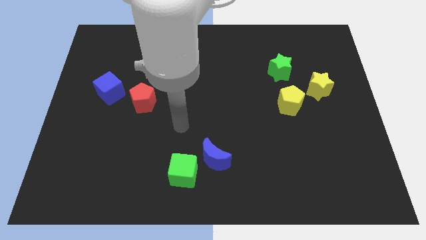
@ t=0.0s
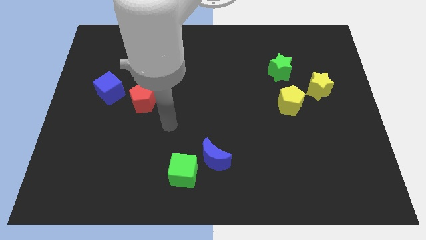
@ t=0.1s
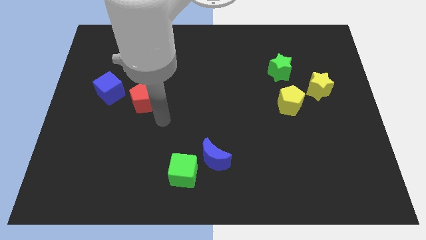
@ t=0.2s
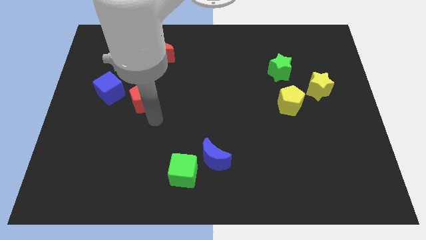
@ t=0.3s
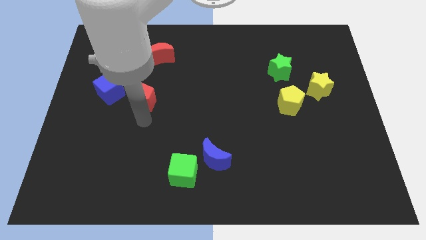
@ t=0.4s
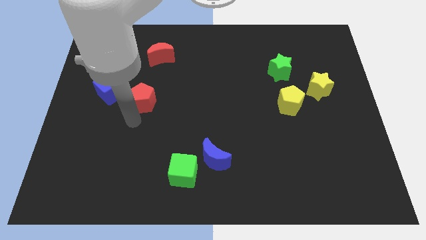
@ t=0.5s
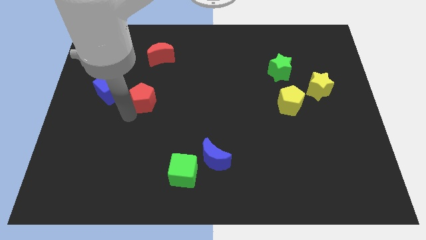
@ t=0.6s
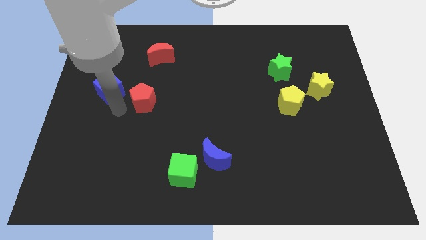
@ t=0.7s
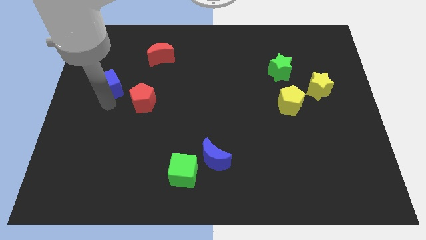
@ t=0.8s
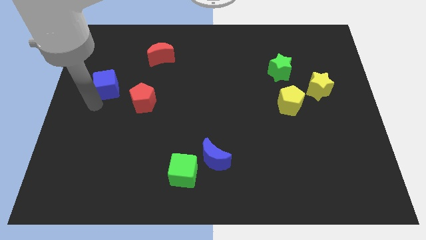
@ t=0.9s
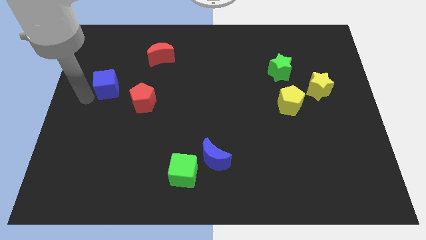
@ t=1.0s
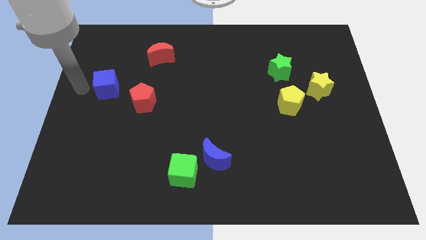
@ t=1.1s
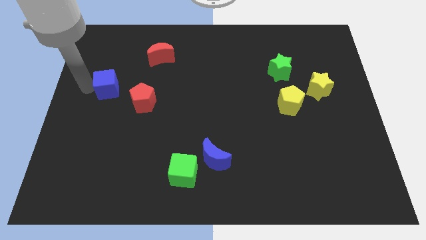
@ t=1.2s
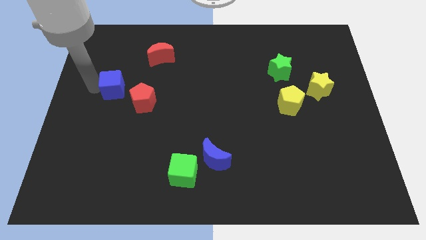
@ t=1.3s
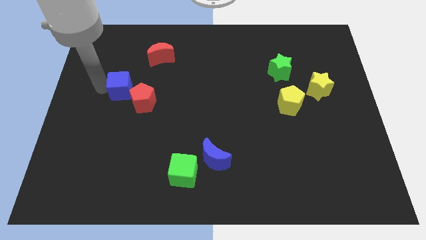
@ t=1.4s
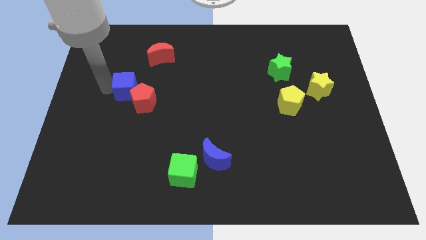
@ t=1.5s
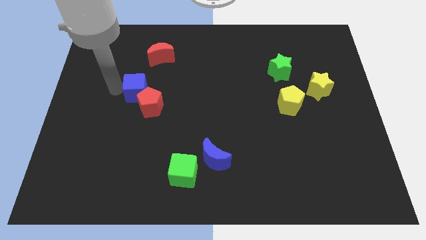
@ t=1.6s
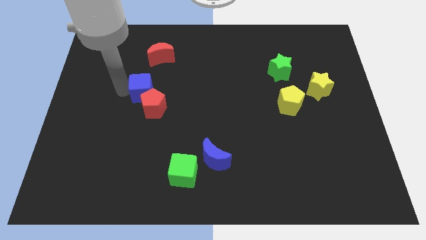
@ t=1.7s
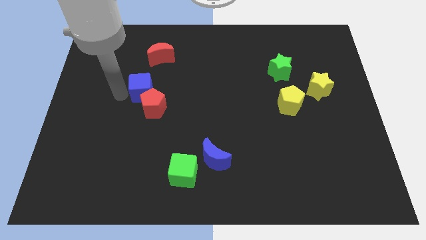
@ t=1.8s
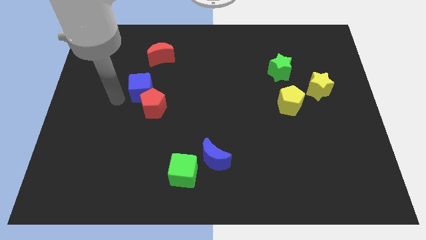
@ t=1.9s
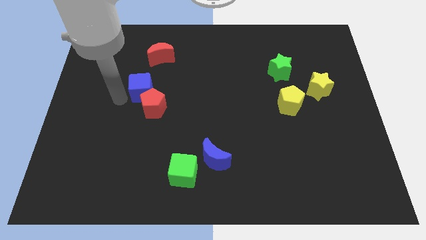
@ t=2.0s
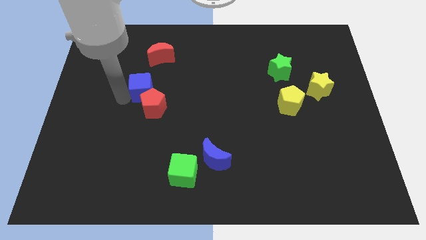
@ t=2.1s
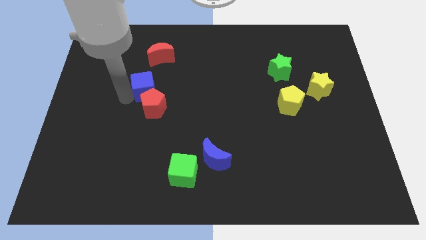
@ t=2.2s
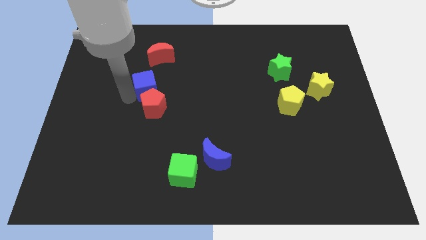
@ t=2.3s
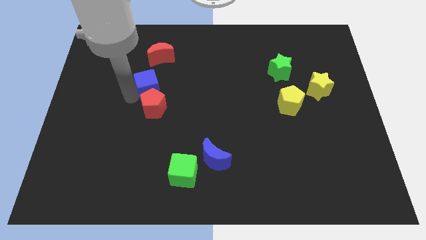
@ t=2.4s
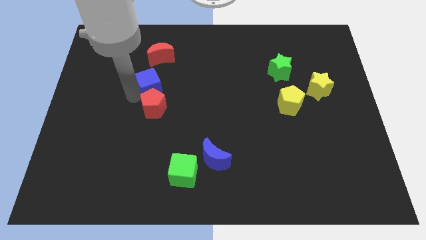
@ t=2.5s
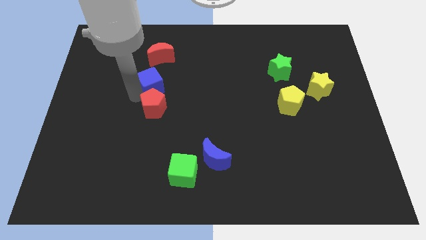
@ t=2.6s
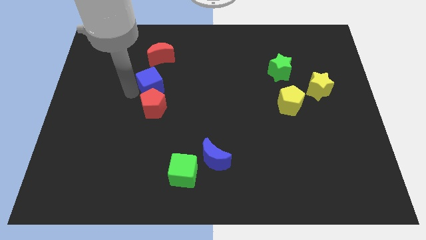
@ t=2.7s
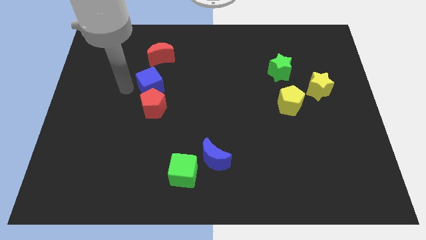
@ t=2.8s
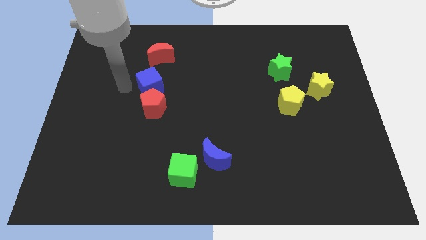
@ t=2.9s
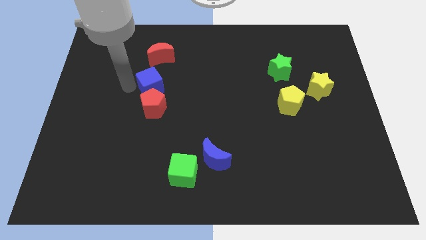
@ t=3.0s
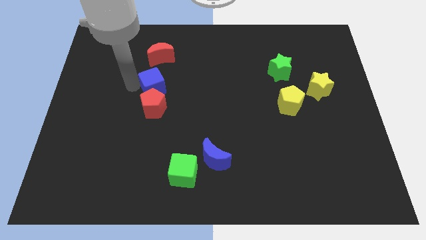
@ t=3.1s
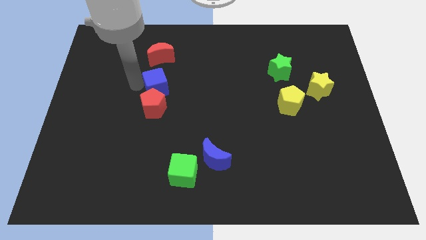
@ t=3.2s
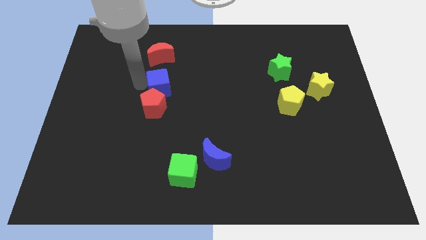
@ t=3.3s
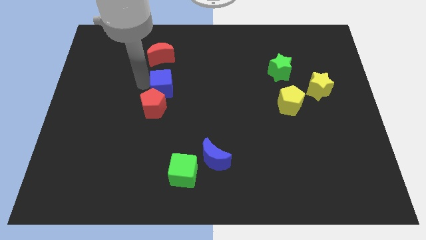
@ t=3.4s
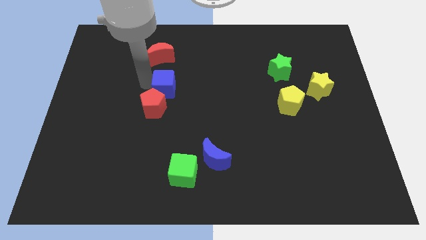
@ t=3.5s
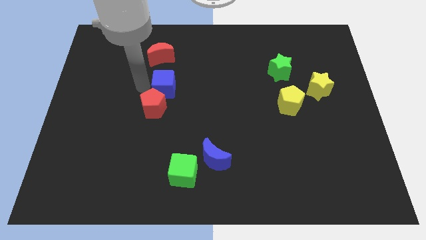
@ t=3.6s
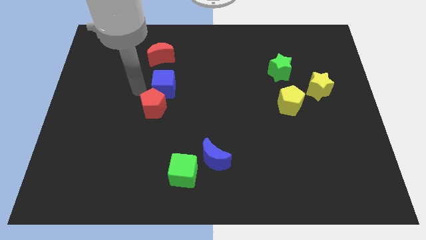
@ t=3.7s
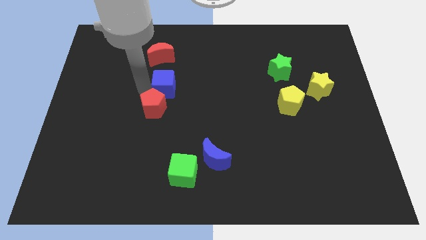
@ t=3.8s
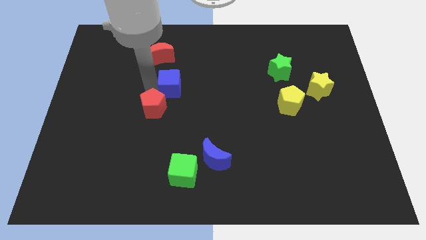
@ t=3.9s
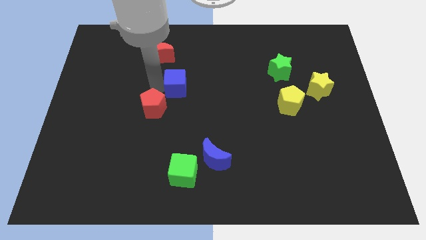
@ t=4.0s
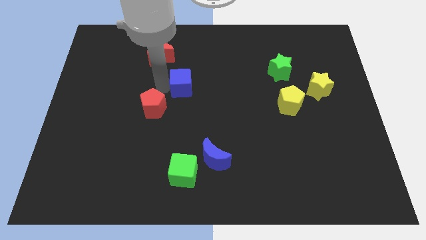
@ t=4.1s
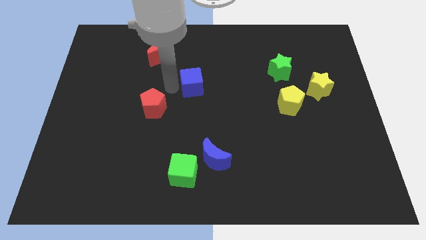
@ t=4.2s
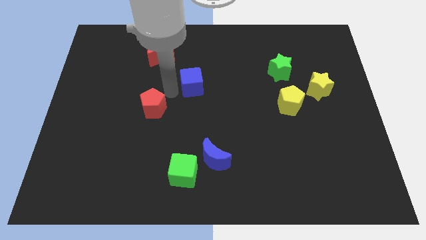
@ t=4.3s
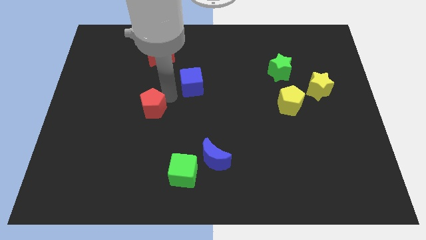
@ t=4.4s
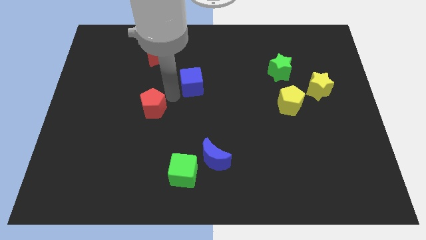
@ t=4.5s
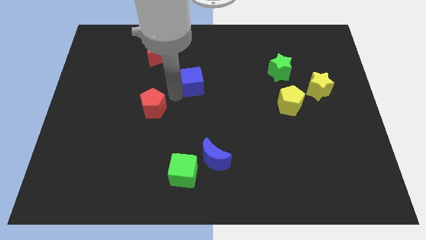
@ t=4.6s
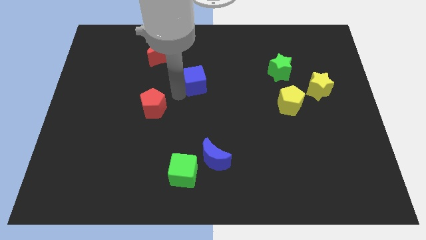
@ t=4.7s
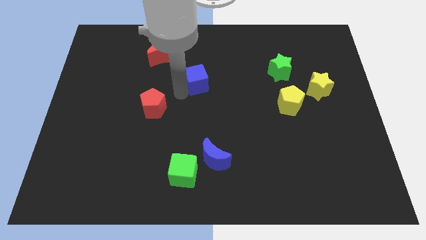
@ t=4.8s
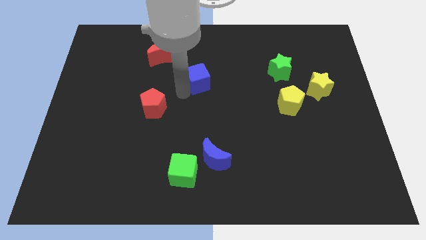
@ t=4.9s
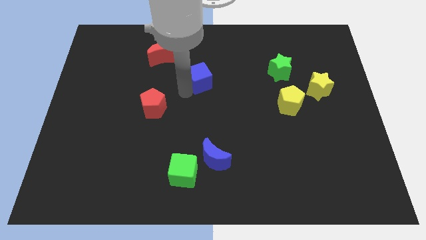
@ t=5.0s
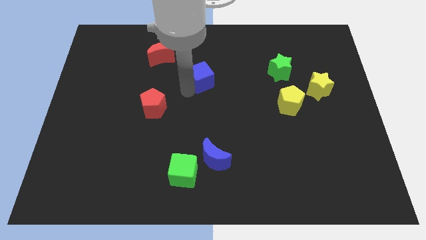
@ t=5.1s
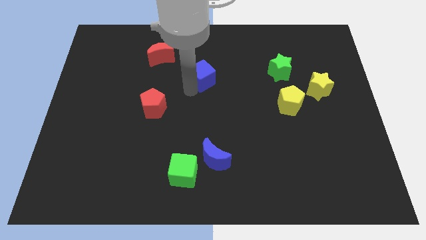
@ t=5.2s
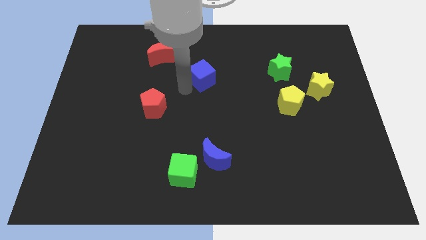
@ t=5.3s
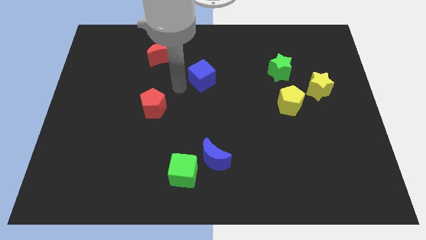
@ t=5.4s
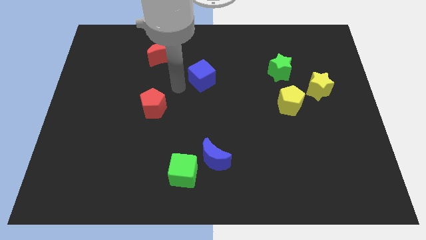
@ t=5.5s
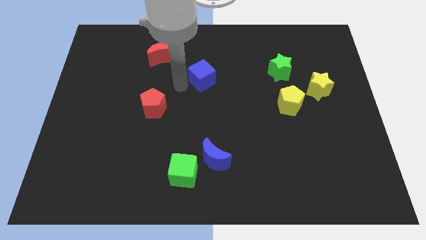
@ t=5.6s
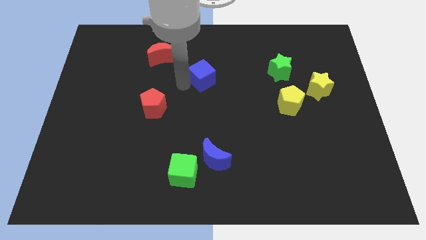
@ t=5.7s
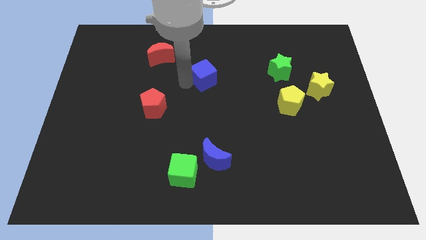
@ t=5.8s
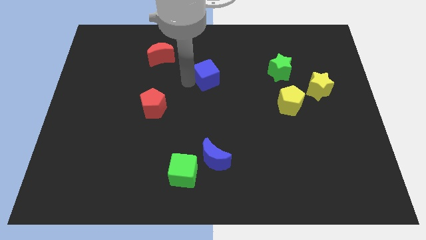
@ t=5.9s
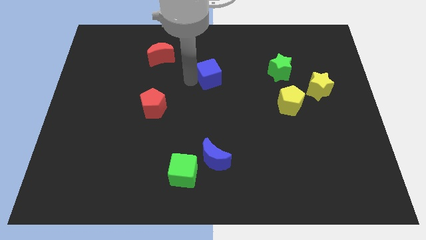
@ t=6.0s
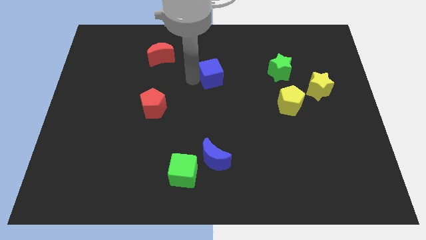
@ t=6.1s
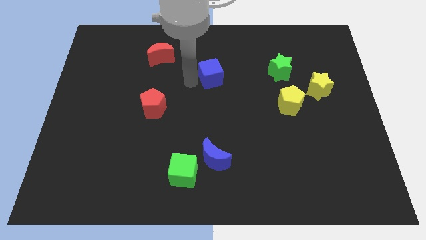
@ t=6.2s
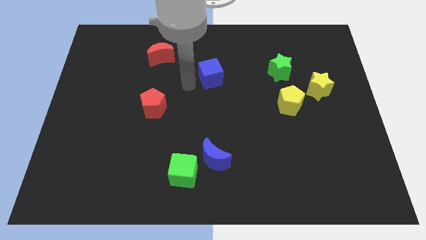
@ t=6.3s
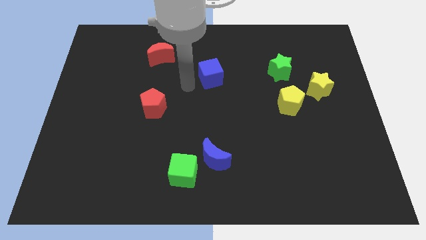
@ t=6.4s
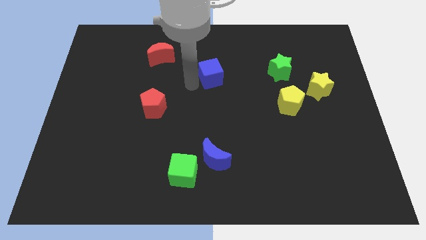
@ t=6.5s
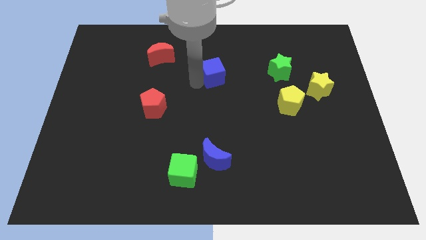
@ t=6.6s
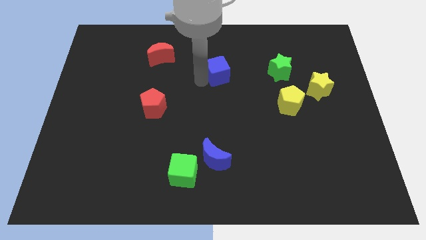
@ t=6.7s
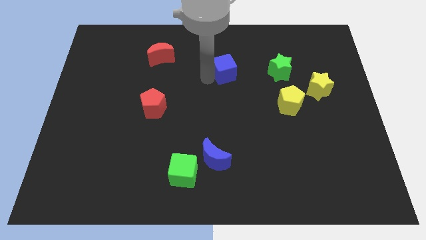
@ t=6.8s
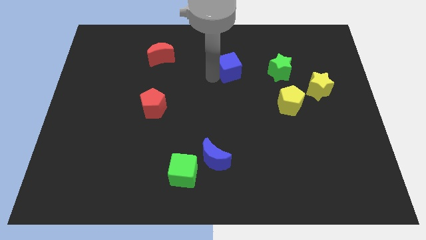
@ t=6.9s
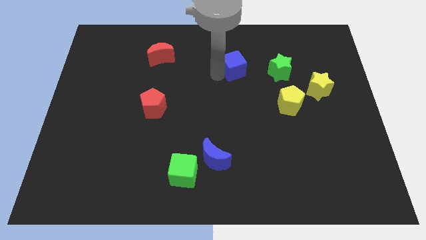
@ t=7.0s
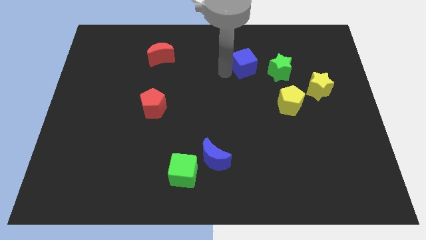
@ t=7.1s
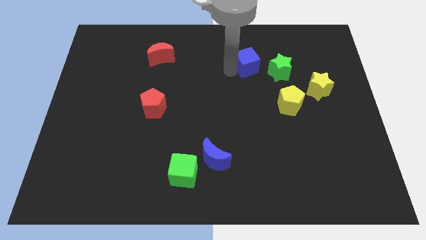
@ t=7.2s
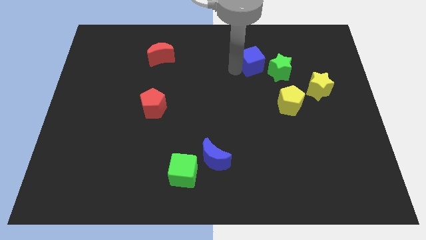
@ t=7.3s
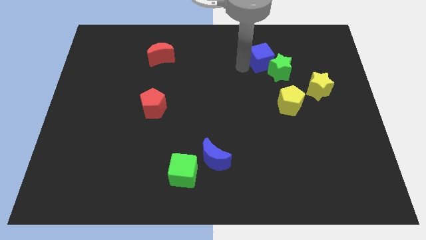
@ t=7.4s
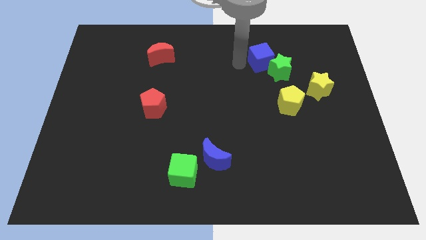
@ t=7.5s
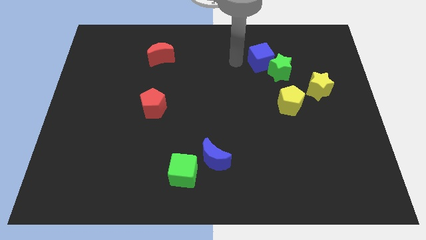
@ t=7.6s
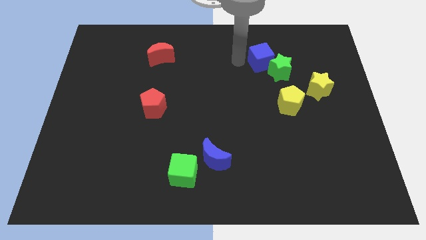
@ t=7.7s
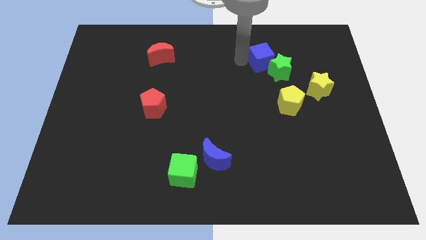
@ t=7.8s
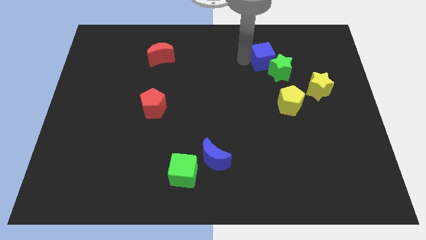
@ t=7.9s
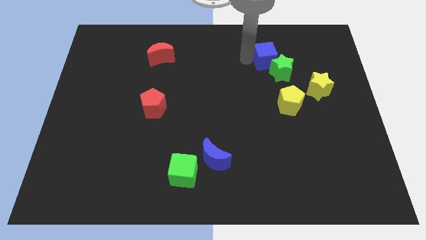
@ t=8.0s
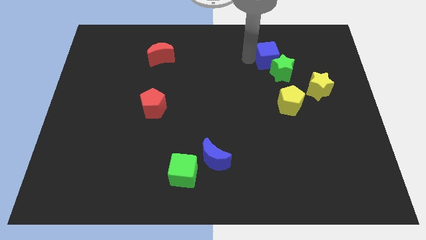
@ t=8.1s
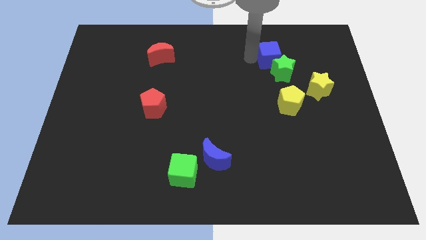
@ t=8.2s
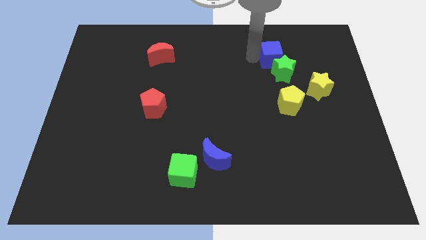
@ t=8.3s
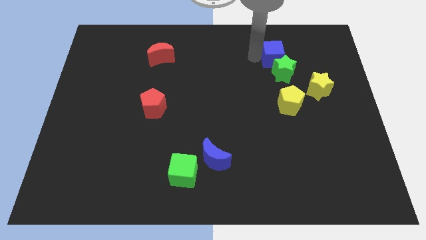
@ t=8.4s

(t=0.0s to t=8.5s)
slide the blue cube above the yellow pentagon
